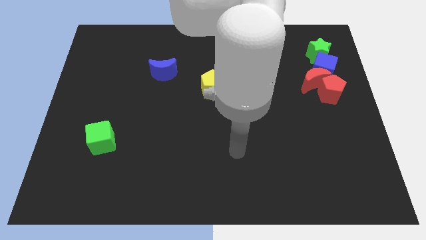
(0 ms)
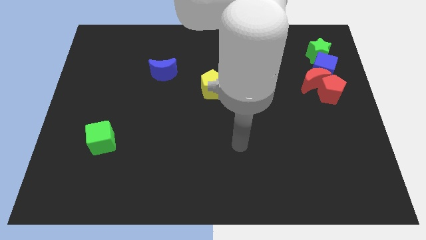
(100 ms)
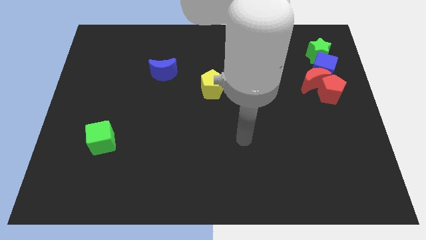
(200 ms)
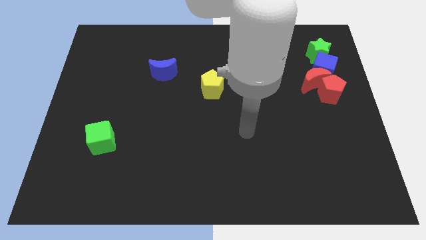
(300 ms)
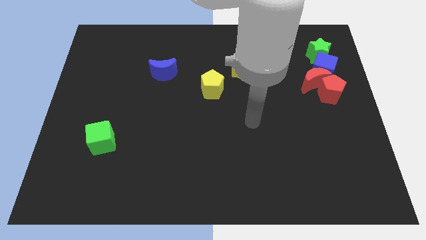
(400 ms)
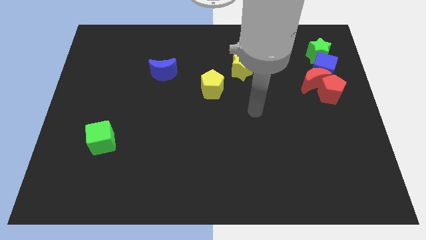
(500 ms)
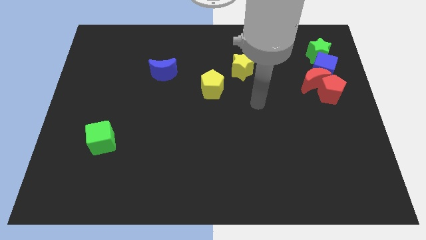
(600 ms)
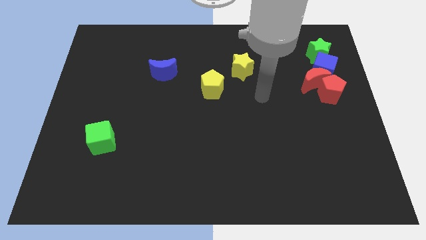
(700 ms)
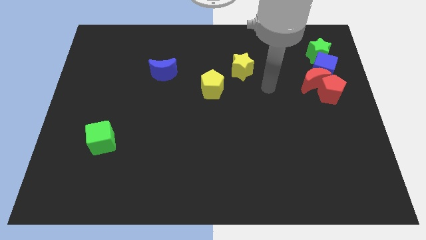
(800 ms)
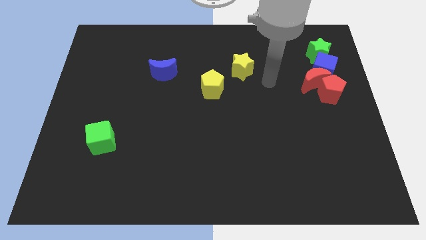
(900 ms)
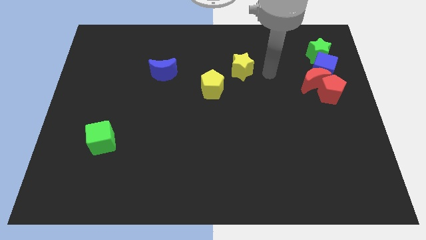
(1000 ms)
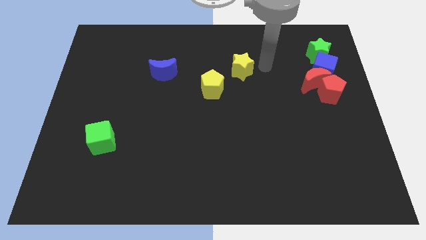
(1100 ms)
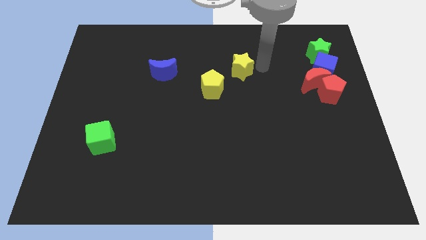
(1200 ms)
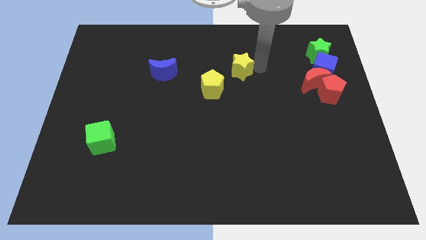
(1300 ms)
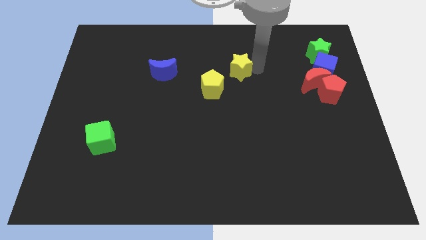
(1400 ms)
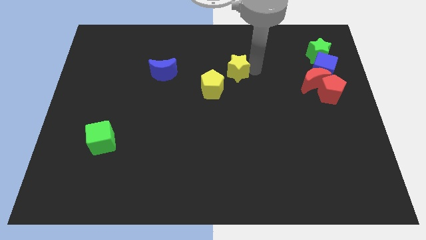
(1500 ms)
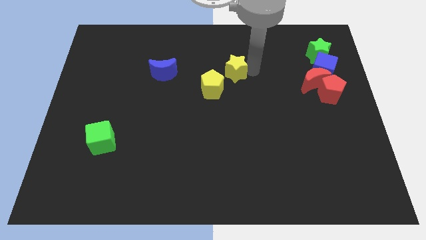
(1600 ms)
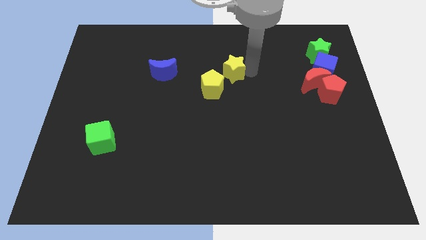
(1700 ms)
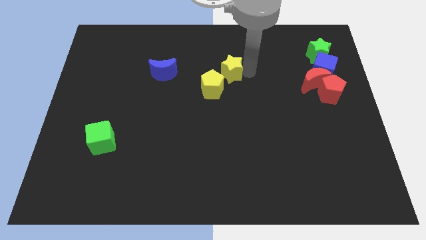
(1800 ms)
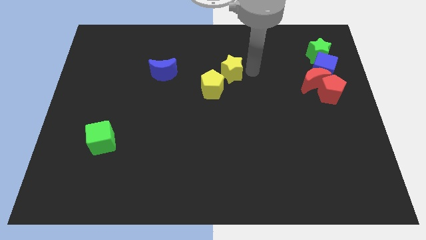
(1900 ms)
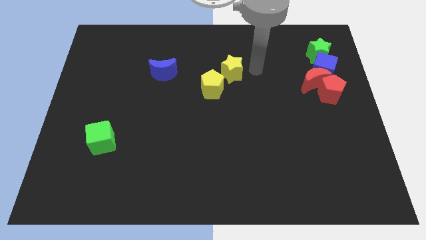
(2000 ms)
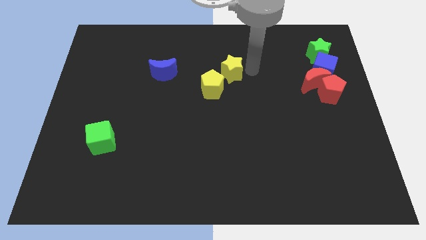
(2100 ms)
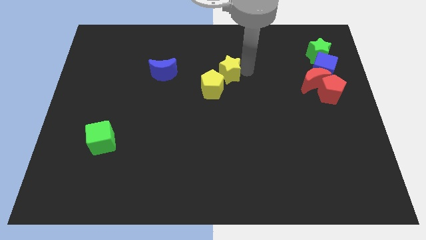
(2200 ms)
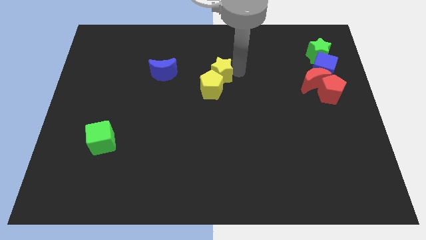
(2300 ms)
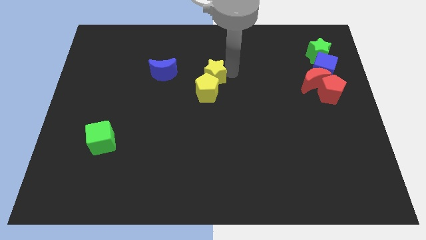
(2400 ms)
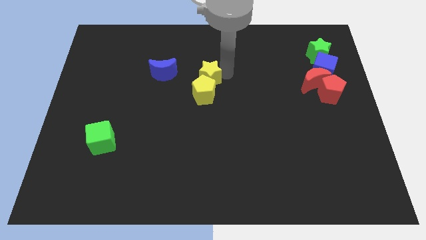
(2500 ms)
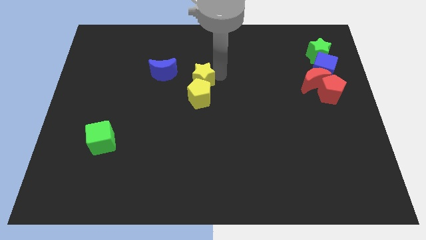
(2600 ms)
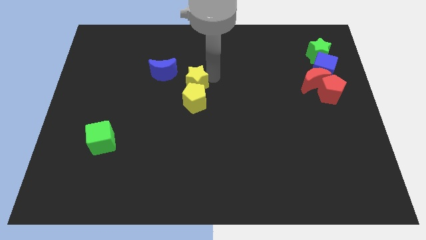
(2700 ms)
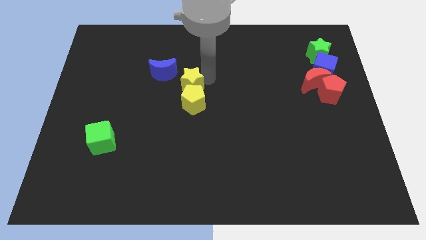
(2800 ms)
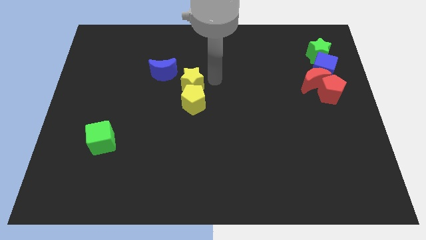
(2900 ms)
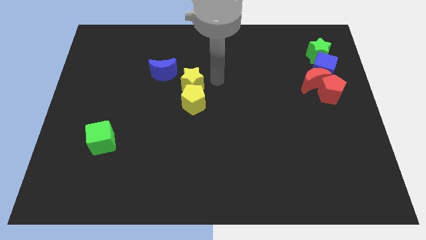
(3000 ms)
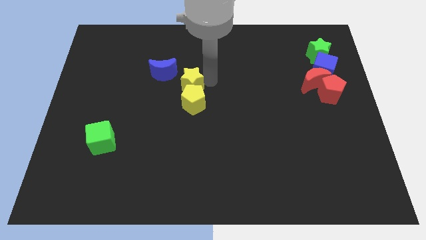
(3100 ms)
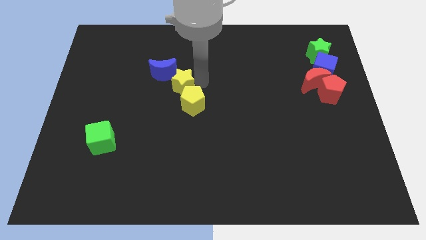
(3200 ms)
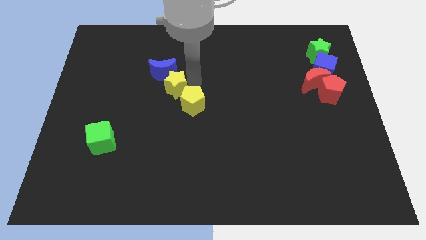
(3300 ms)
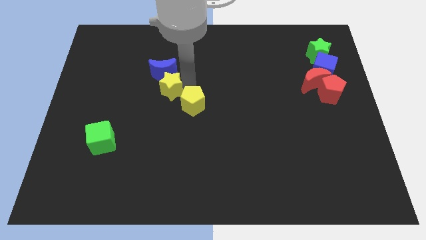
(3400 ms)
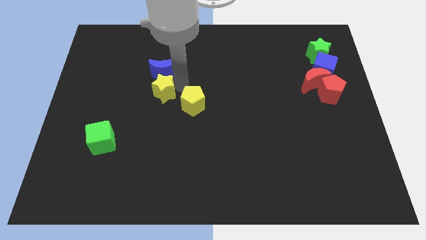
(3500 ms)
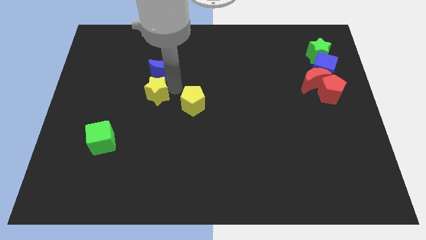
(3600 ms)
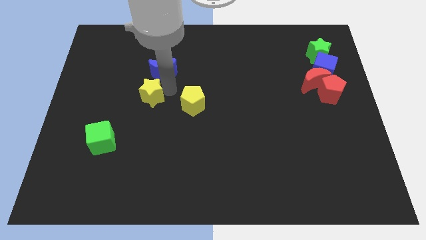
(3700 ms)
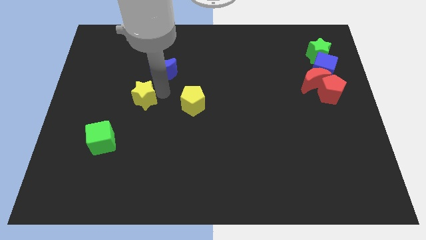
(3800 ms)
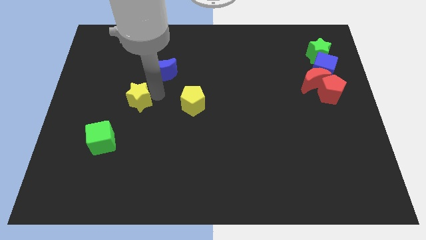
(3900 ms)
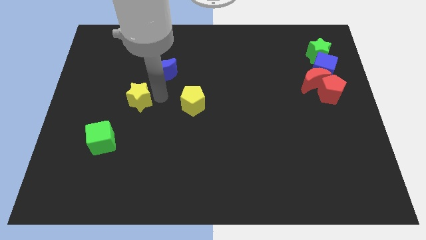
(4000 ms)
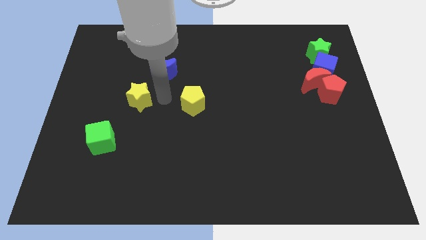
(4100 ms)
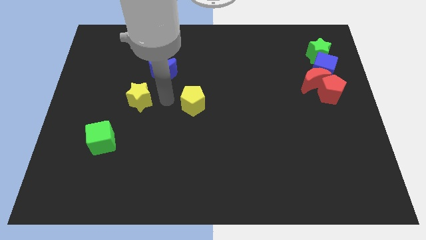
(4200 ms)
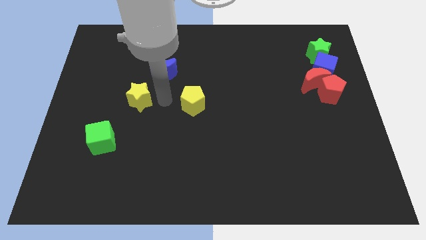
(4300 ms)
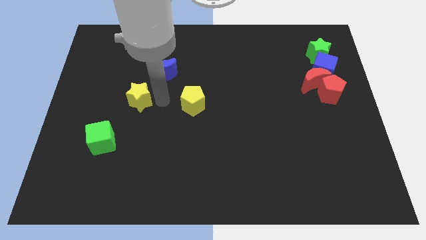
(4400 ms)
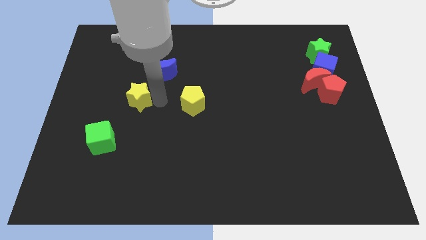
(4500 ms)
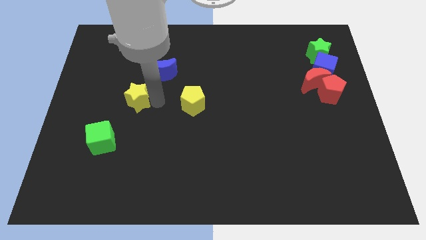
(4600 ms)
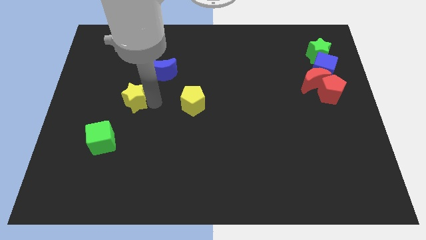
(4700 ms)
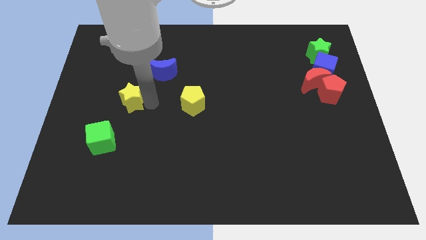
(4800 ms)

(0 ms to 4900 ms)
slide the yellow star to the top of the green cube

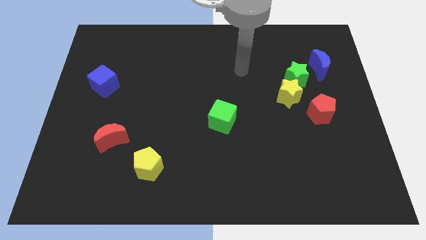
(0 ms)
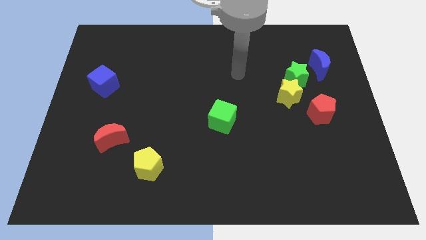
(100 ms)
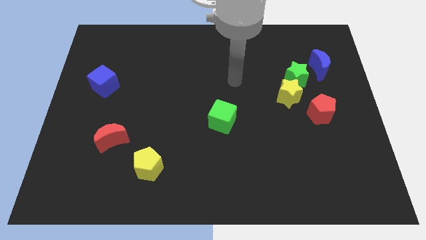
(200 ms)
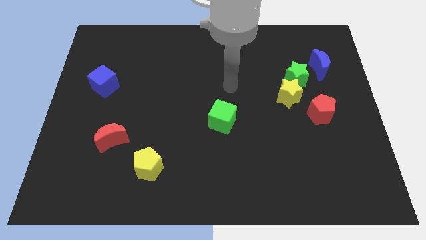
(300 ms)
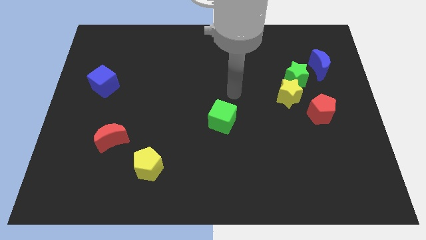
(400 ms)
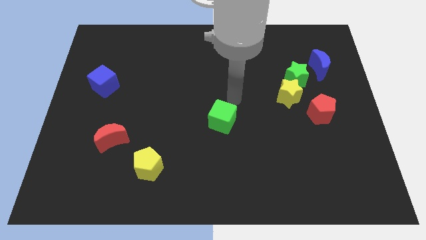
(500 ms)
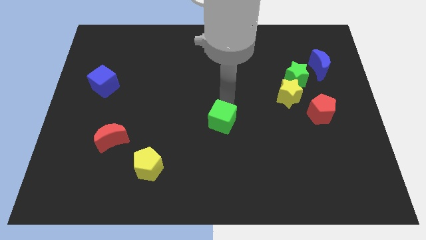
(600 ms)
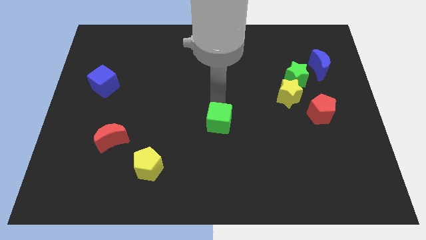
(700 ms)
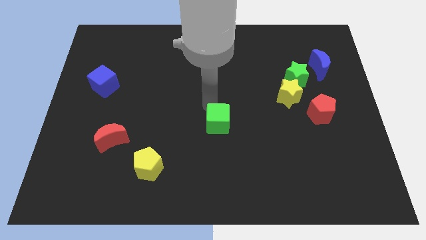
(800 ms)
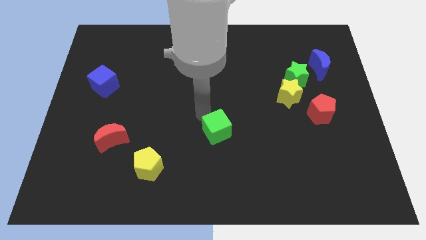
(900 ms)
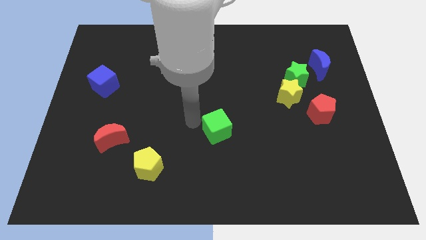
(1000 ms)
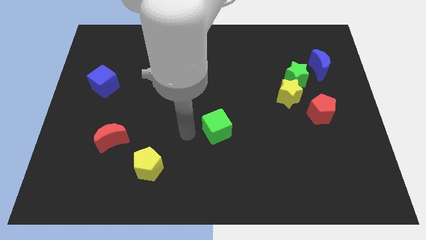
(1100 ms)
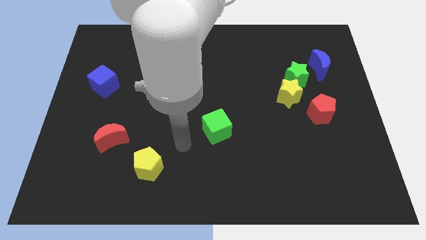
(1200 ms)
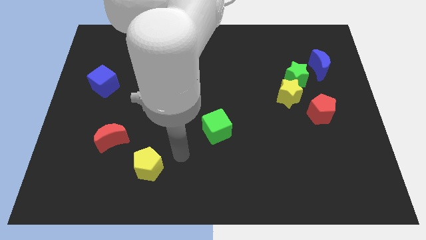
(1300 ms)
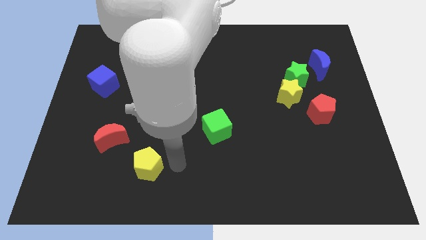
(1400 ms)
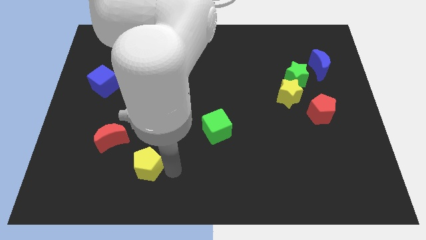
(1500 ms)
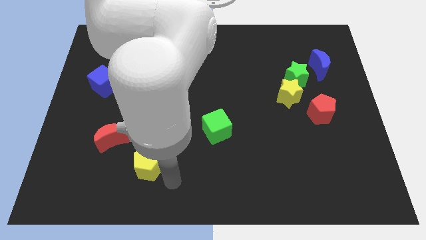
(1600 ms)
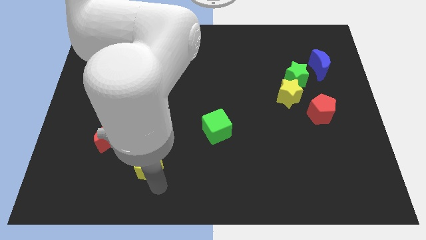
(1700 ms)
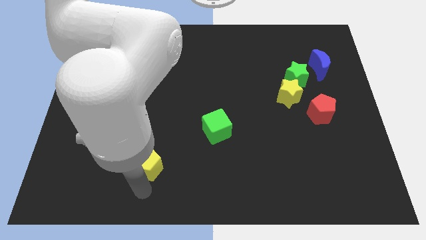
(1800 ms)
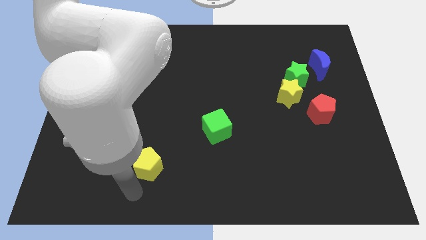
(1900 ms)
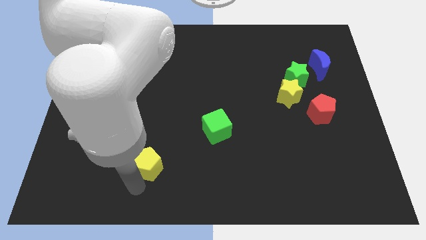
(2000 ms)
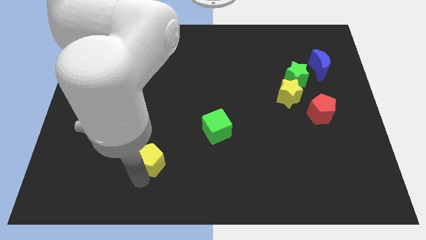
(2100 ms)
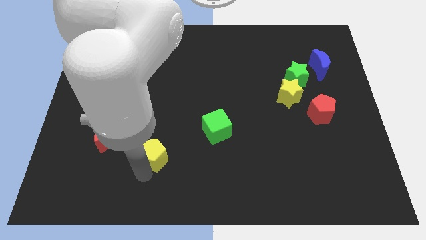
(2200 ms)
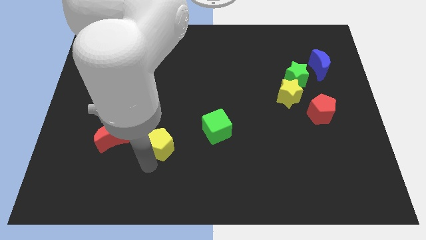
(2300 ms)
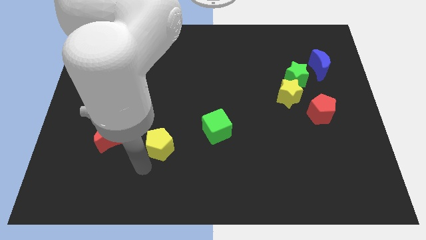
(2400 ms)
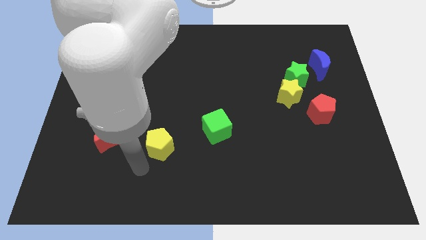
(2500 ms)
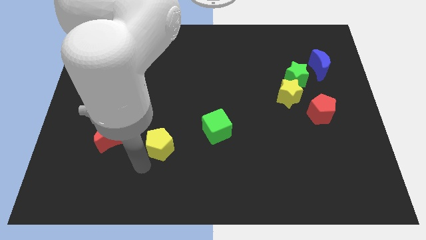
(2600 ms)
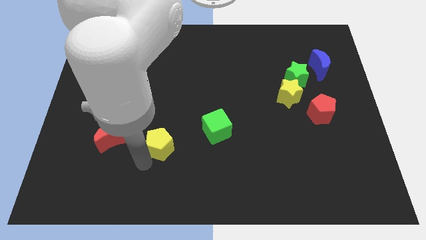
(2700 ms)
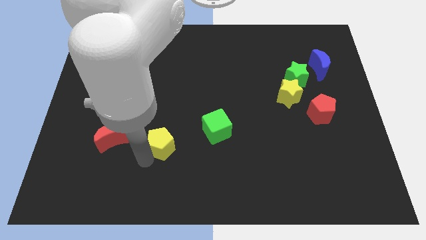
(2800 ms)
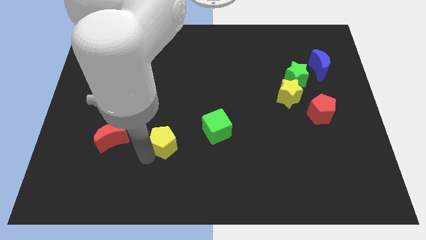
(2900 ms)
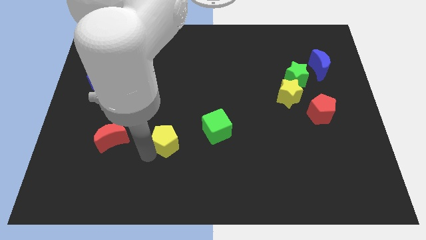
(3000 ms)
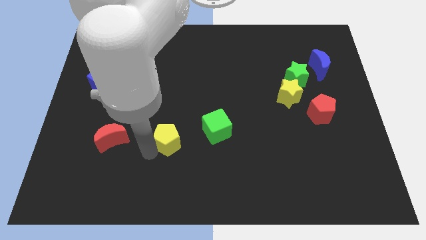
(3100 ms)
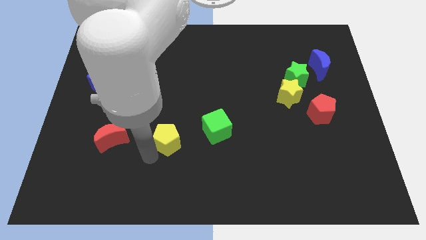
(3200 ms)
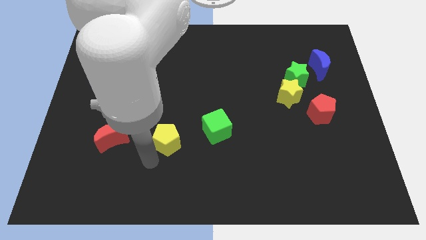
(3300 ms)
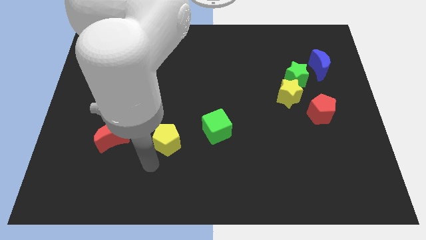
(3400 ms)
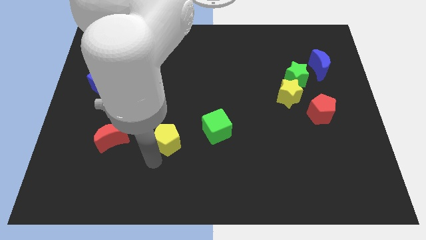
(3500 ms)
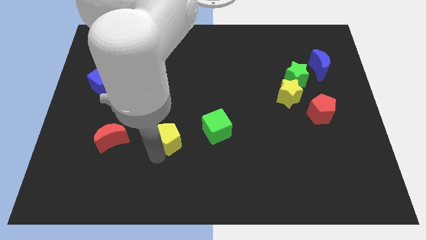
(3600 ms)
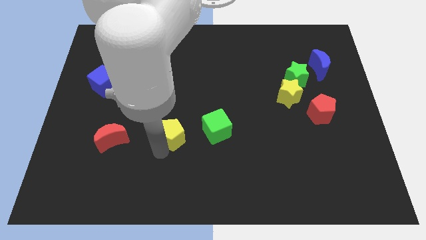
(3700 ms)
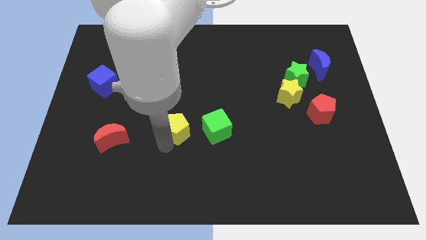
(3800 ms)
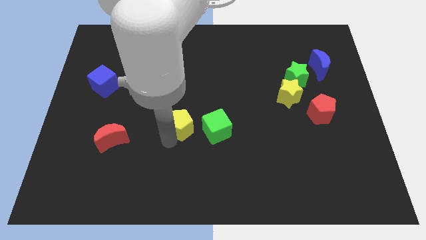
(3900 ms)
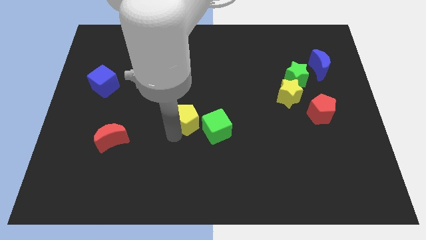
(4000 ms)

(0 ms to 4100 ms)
slide the yellow pentagon to the top left side of the green cube
